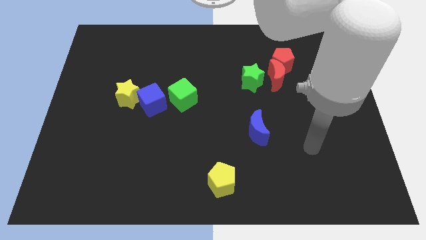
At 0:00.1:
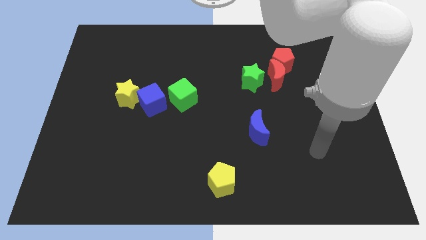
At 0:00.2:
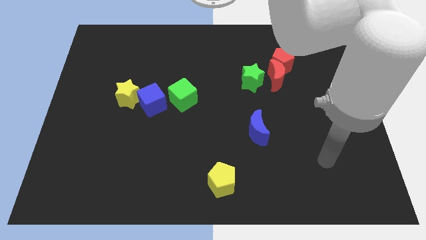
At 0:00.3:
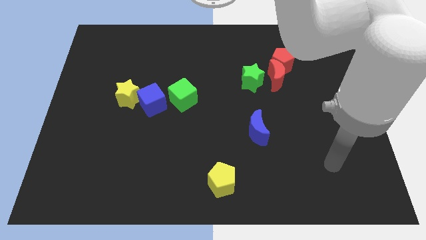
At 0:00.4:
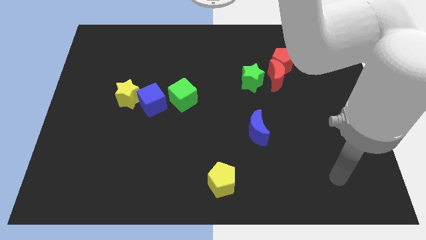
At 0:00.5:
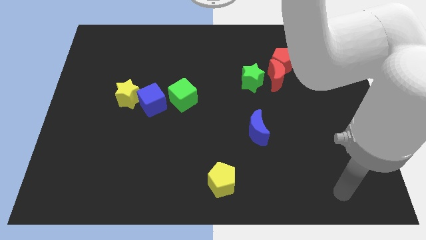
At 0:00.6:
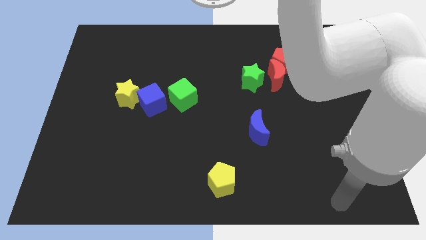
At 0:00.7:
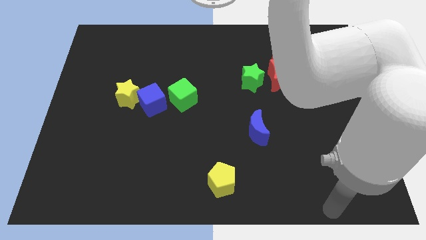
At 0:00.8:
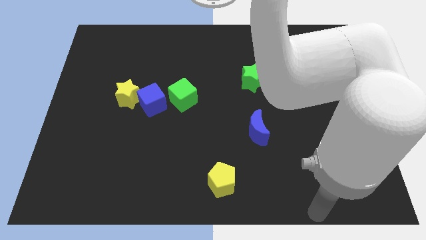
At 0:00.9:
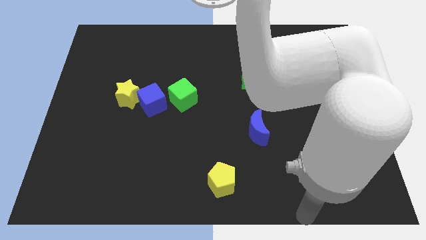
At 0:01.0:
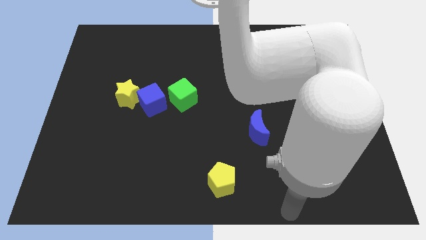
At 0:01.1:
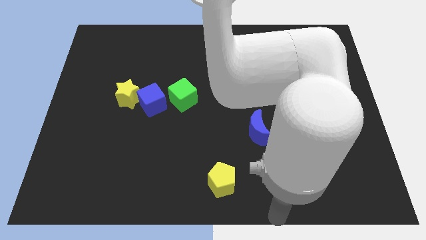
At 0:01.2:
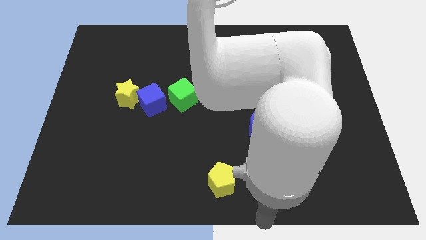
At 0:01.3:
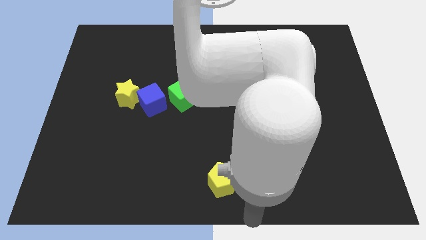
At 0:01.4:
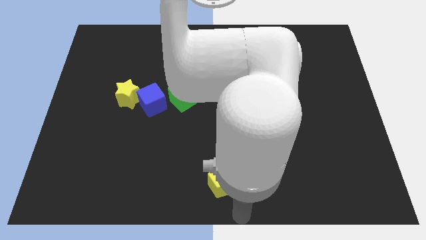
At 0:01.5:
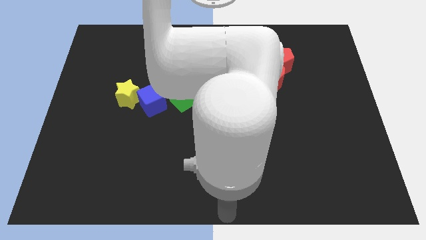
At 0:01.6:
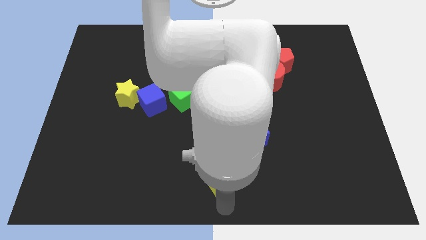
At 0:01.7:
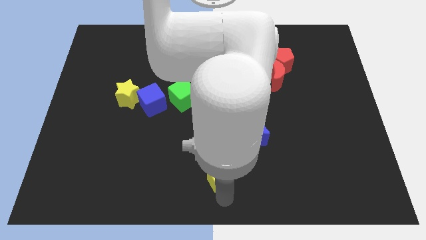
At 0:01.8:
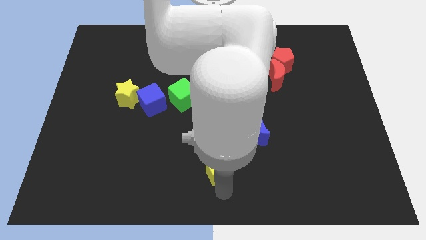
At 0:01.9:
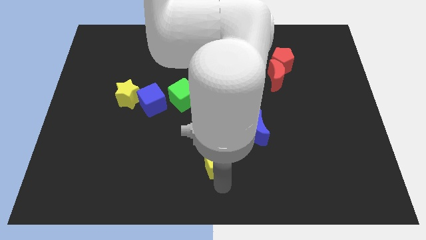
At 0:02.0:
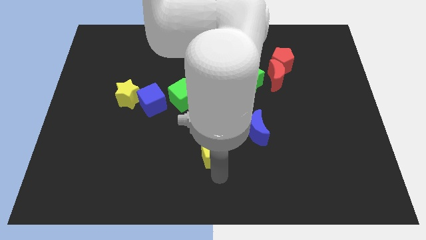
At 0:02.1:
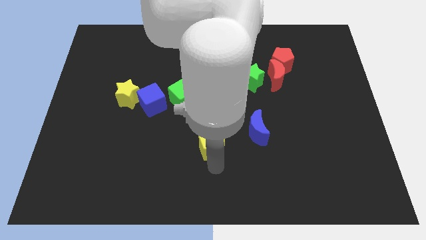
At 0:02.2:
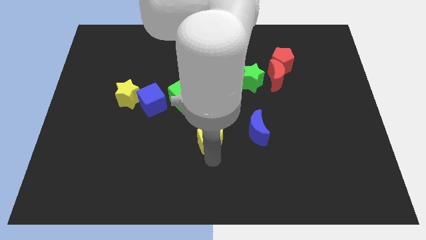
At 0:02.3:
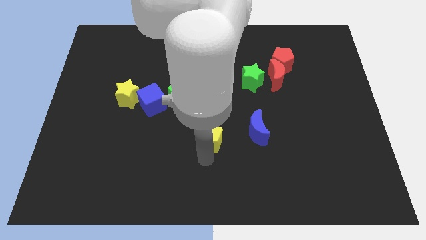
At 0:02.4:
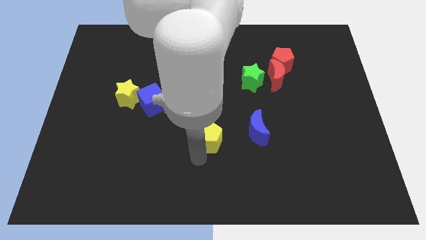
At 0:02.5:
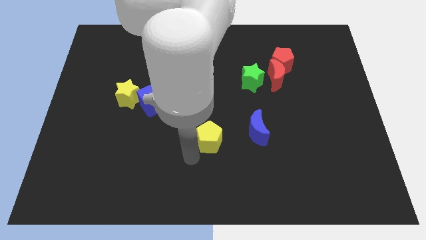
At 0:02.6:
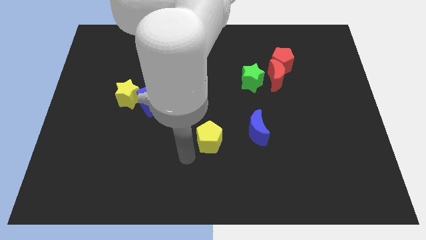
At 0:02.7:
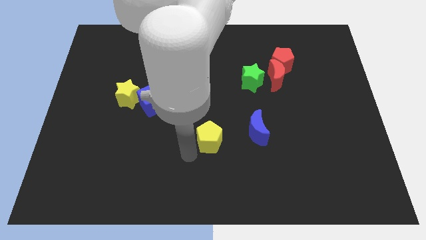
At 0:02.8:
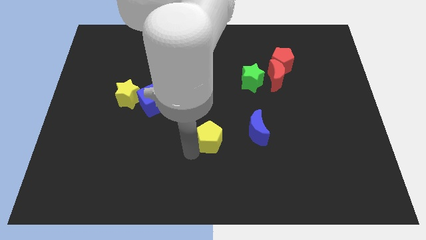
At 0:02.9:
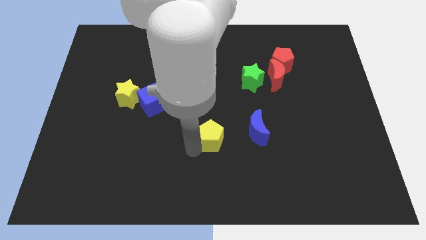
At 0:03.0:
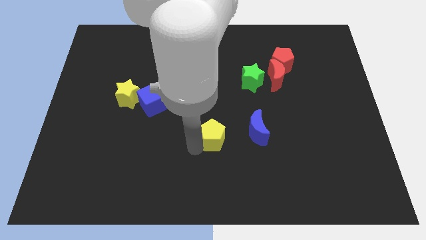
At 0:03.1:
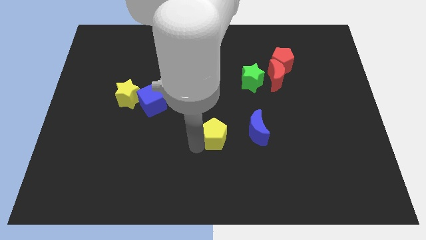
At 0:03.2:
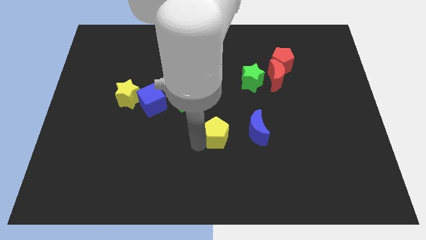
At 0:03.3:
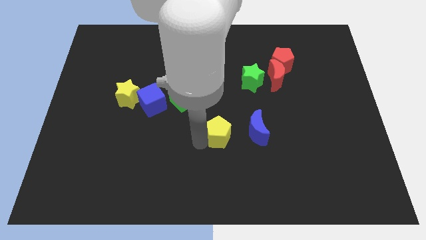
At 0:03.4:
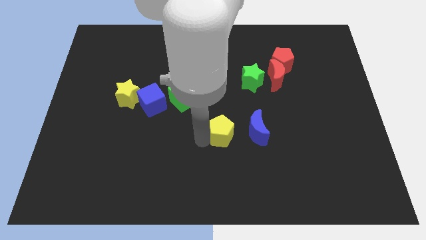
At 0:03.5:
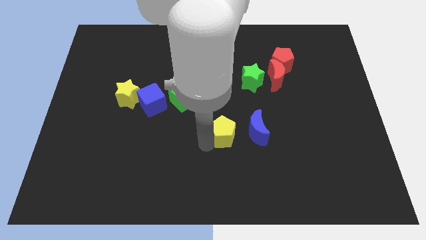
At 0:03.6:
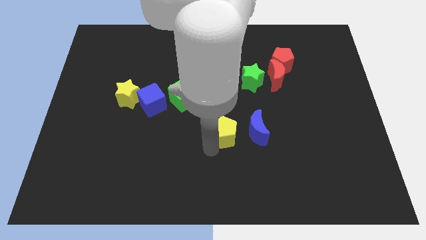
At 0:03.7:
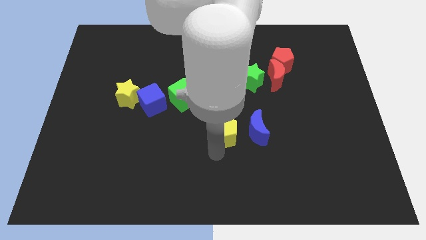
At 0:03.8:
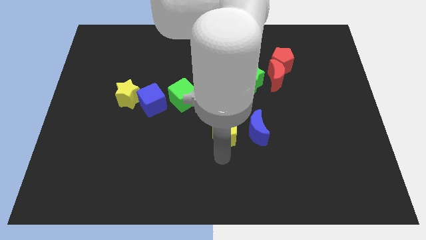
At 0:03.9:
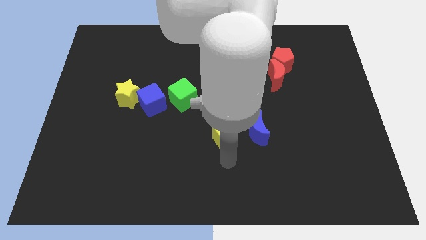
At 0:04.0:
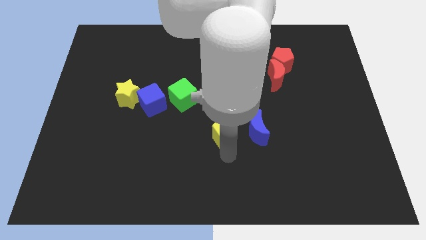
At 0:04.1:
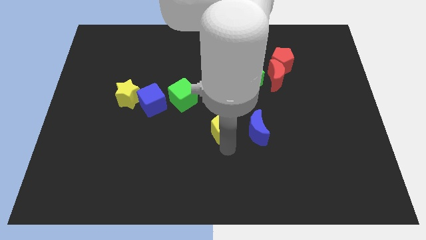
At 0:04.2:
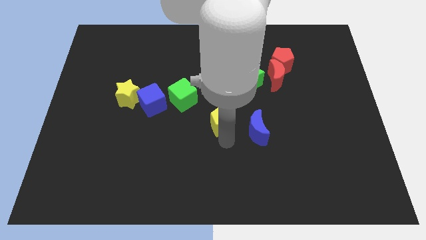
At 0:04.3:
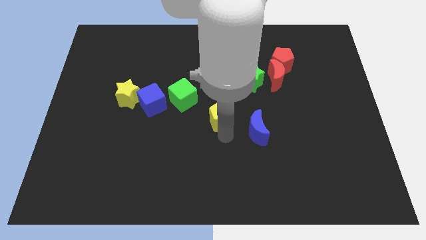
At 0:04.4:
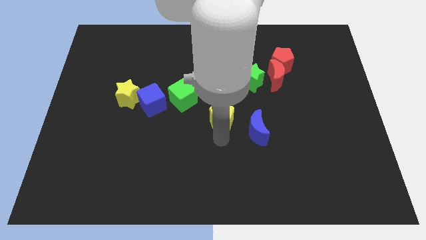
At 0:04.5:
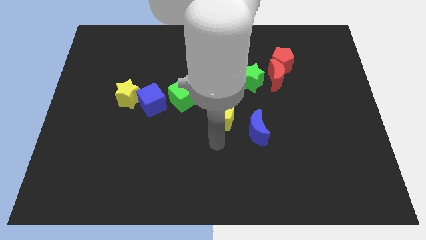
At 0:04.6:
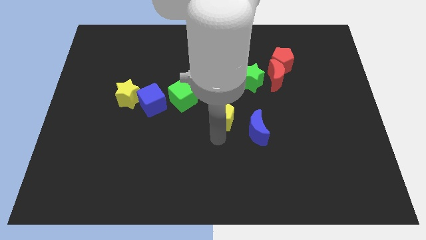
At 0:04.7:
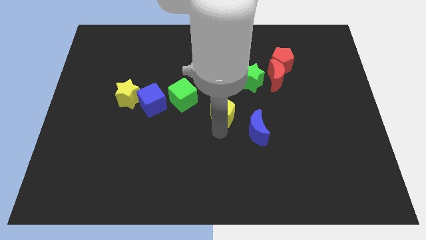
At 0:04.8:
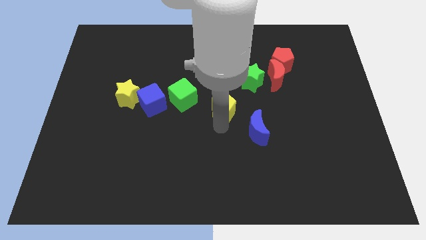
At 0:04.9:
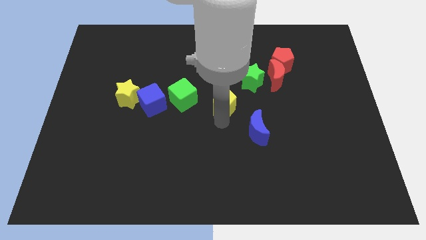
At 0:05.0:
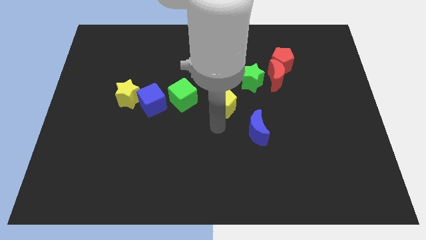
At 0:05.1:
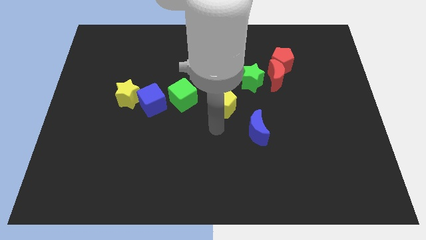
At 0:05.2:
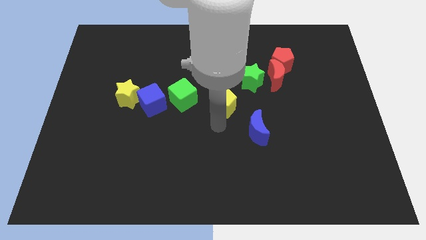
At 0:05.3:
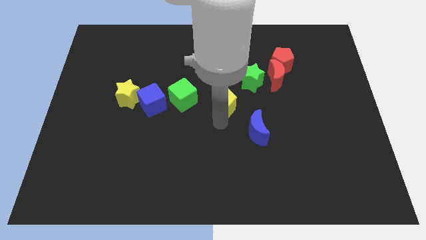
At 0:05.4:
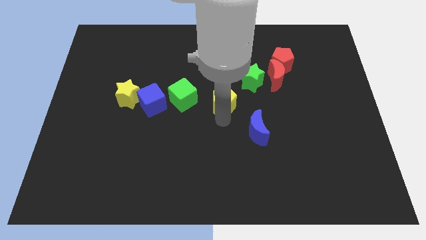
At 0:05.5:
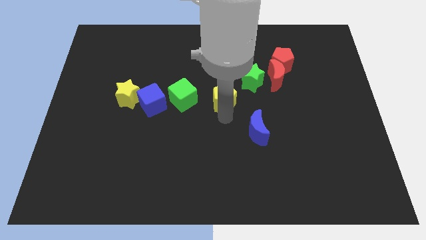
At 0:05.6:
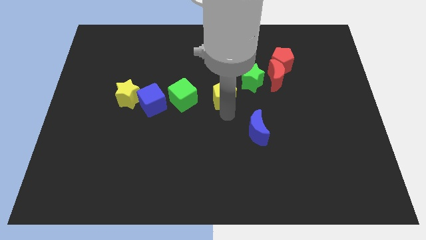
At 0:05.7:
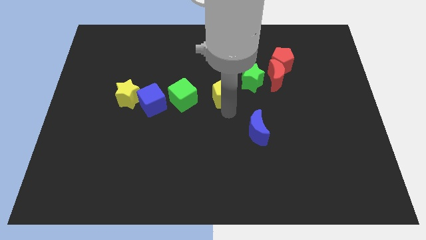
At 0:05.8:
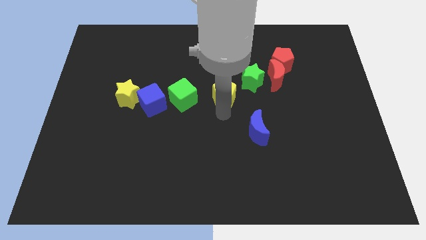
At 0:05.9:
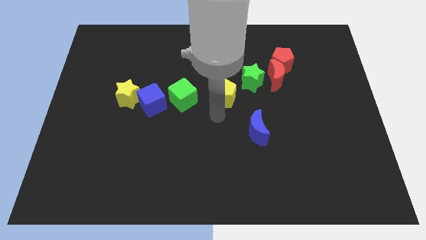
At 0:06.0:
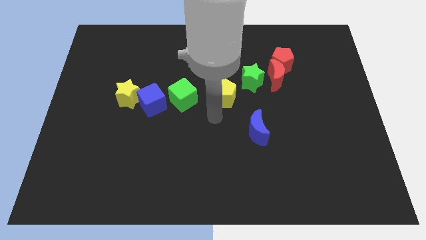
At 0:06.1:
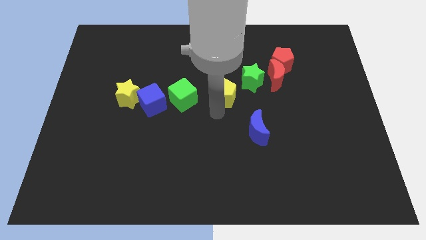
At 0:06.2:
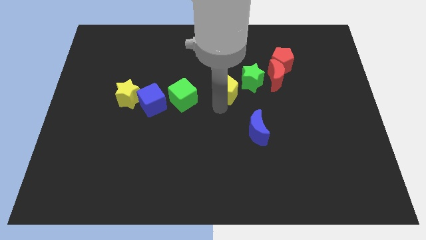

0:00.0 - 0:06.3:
push the yellow pentagon left of the red moon
